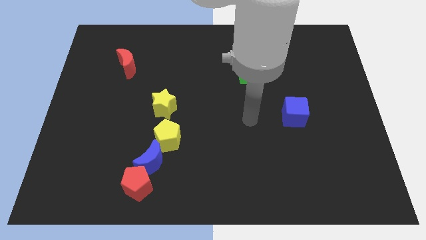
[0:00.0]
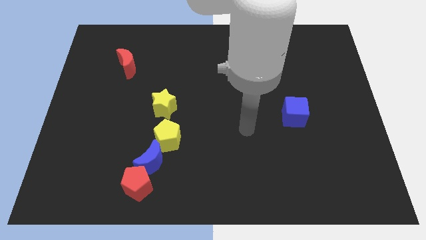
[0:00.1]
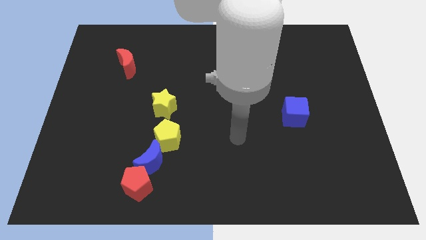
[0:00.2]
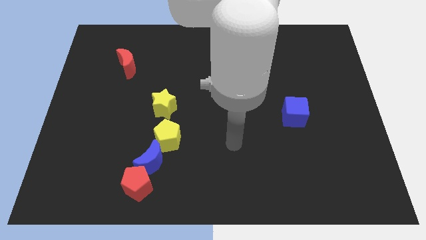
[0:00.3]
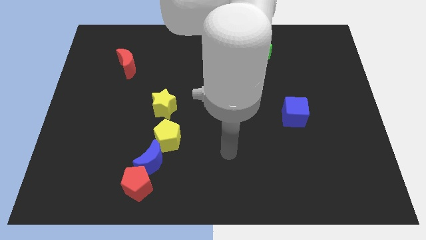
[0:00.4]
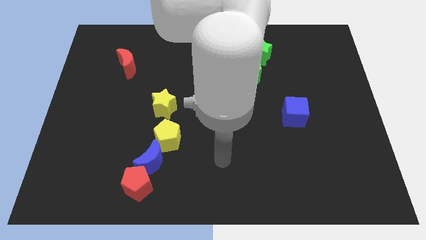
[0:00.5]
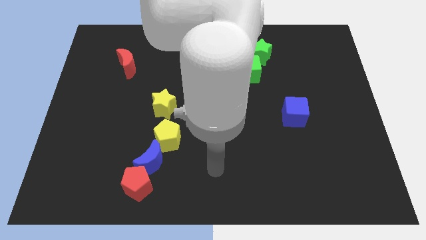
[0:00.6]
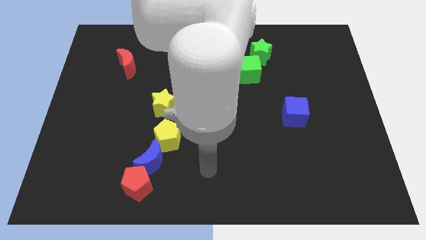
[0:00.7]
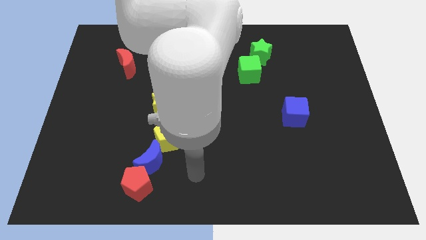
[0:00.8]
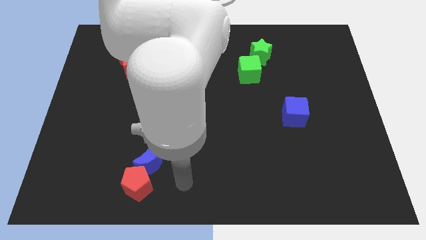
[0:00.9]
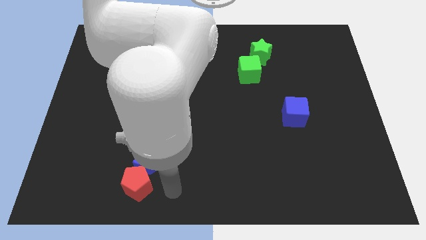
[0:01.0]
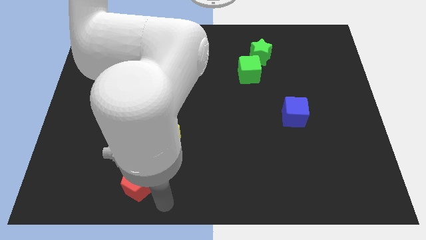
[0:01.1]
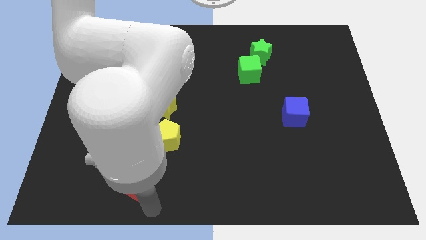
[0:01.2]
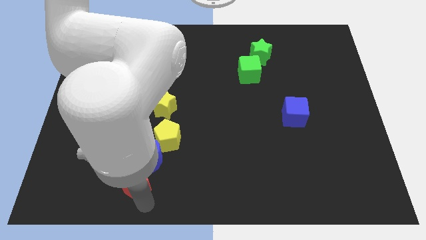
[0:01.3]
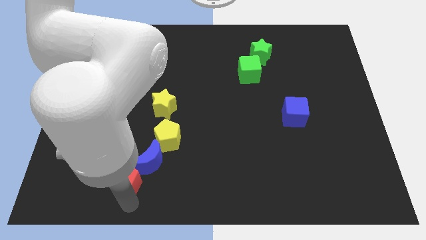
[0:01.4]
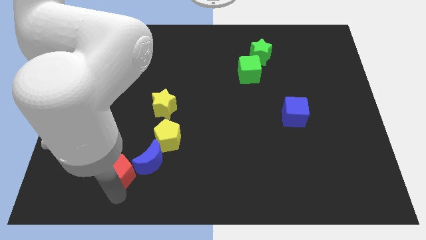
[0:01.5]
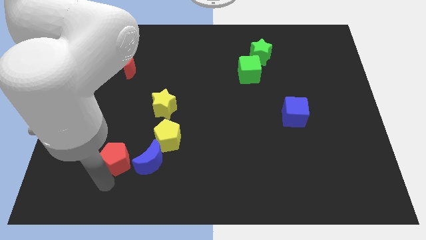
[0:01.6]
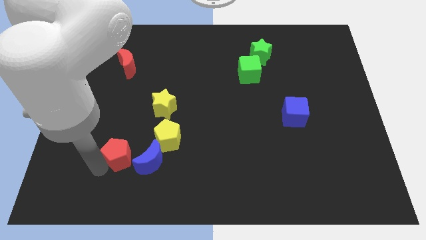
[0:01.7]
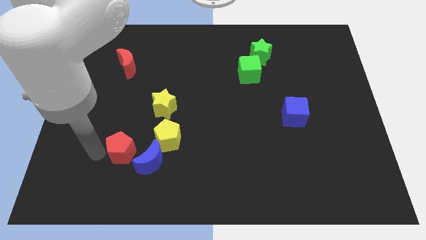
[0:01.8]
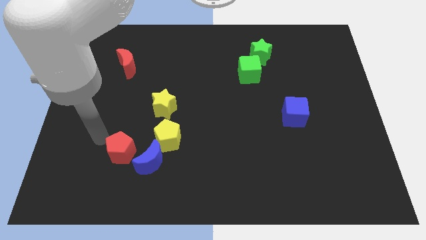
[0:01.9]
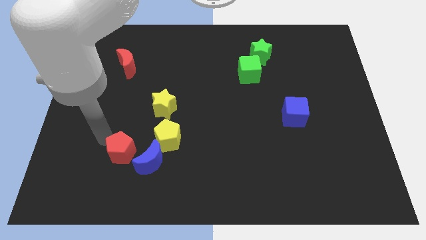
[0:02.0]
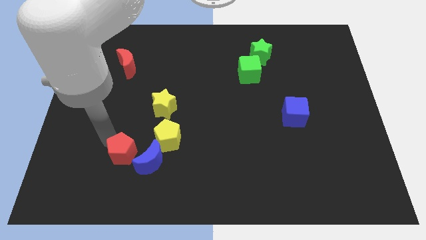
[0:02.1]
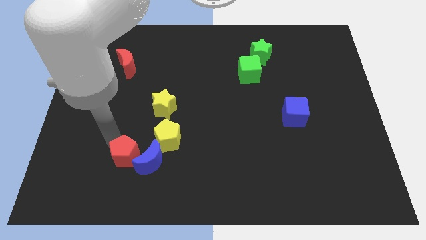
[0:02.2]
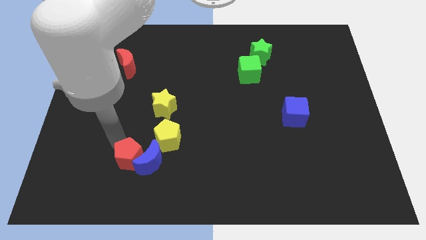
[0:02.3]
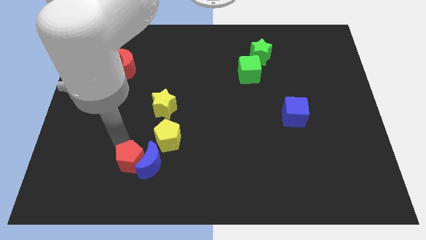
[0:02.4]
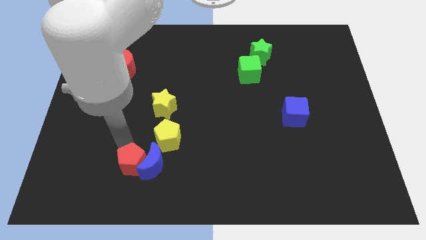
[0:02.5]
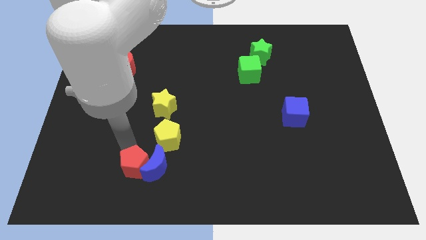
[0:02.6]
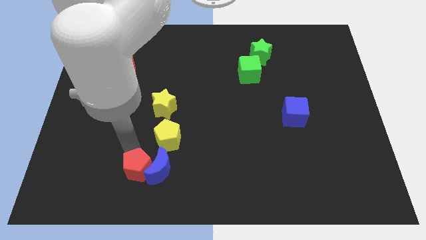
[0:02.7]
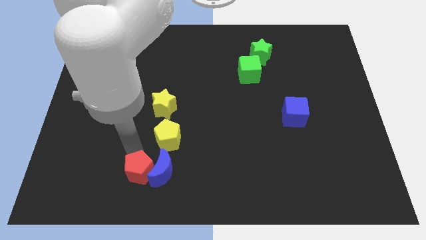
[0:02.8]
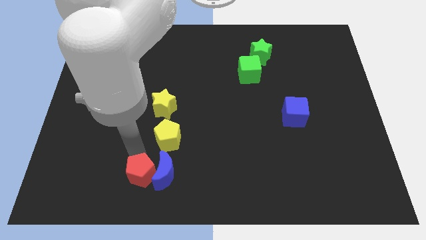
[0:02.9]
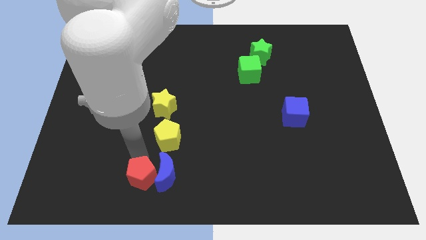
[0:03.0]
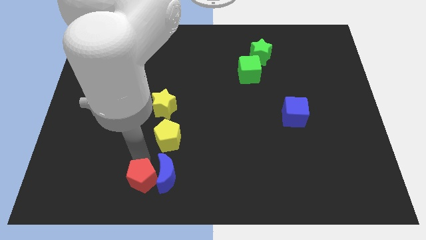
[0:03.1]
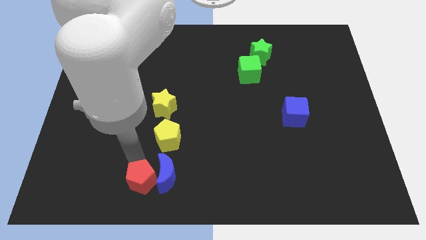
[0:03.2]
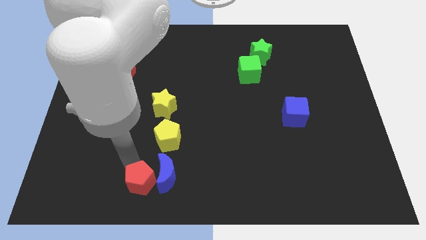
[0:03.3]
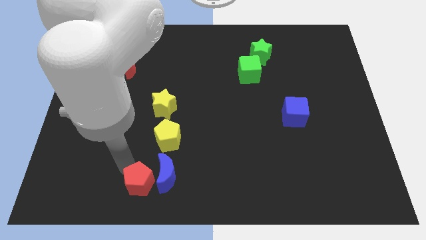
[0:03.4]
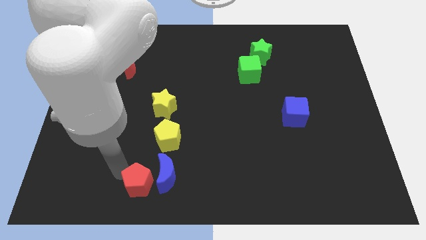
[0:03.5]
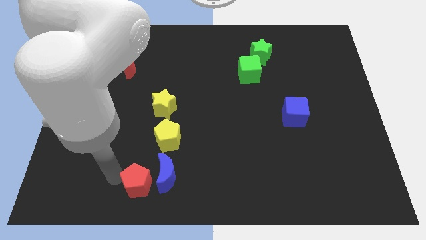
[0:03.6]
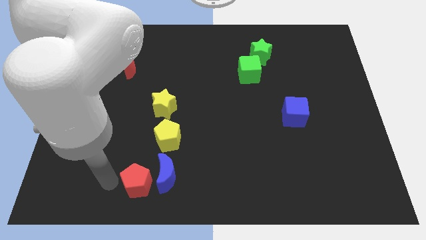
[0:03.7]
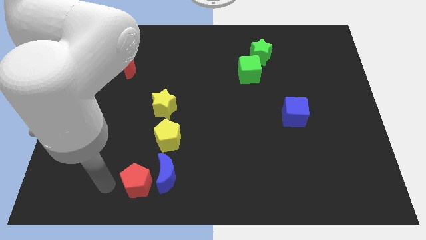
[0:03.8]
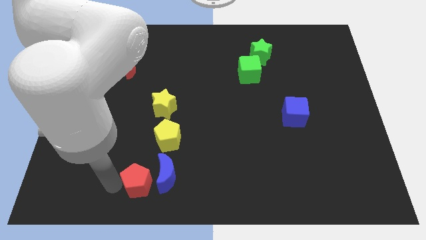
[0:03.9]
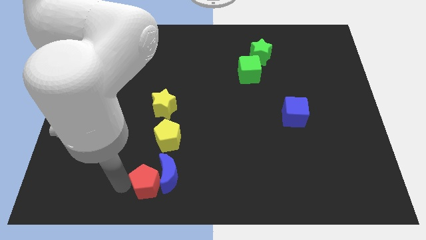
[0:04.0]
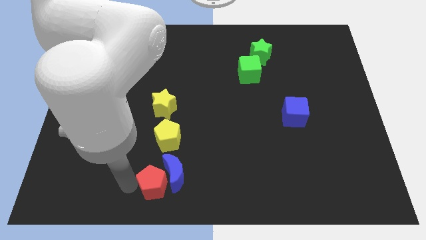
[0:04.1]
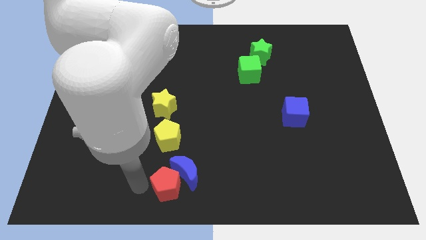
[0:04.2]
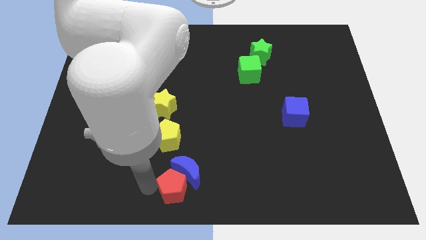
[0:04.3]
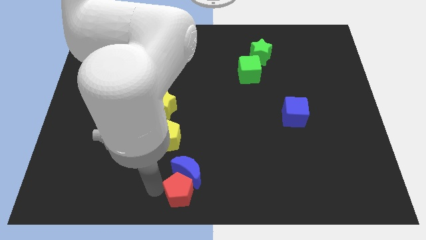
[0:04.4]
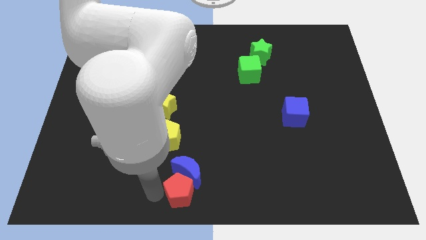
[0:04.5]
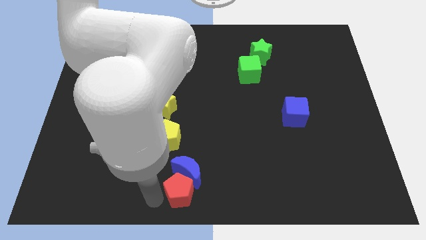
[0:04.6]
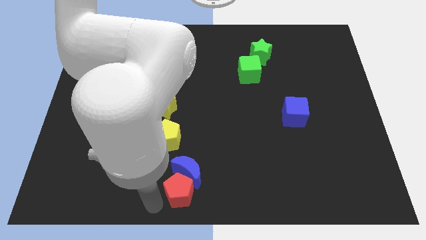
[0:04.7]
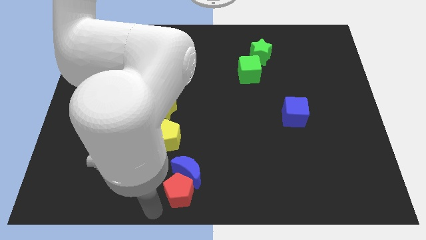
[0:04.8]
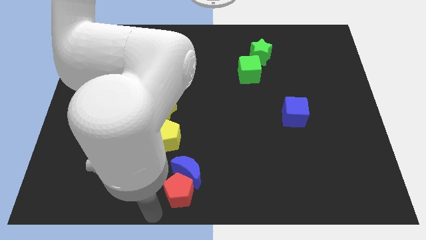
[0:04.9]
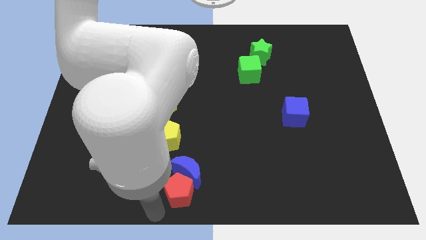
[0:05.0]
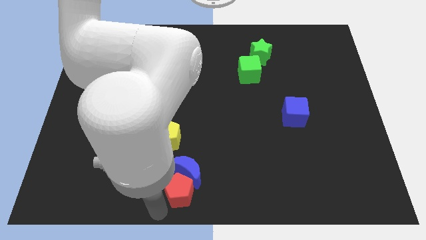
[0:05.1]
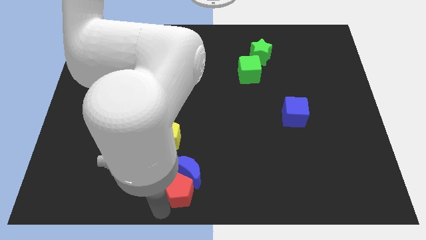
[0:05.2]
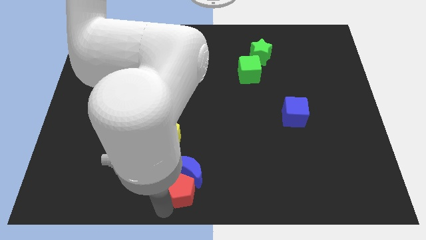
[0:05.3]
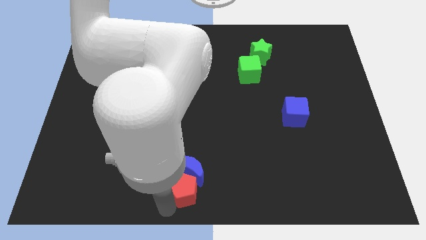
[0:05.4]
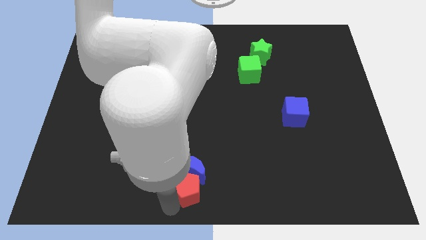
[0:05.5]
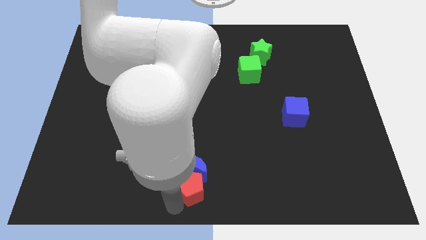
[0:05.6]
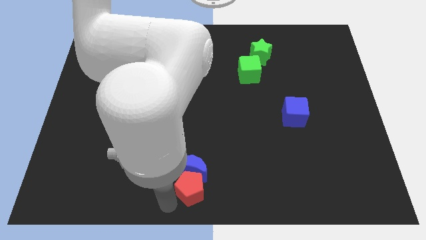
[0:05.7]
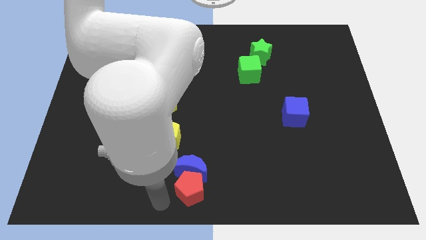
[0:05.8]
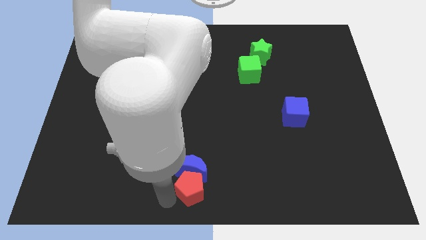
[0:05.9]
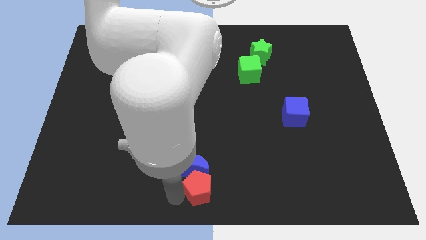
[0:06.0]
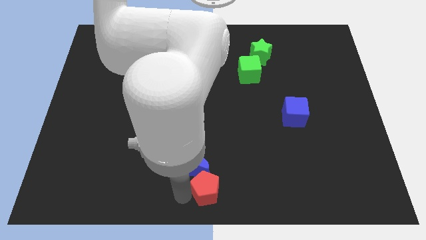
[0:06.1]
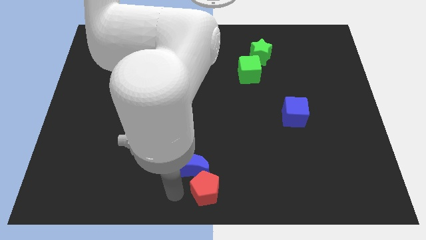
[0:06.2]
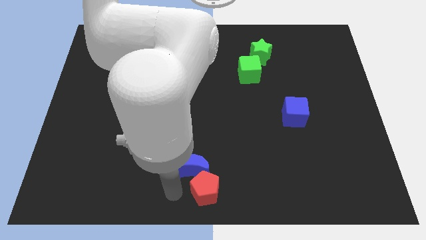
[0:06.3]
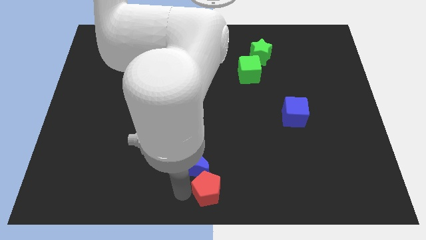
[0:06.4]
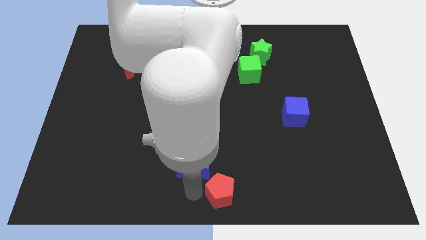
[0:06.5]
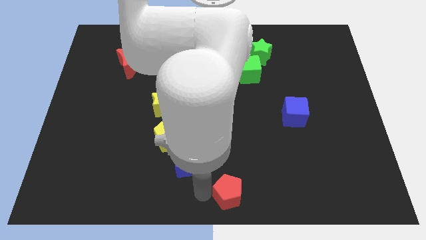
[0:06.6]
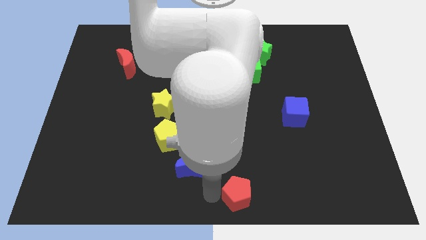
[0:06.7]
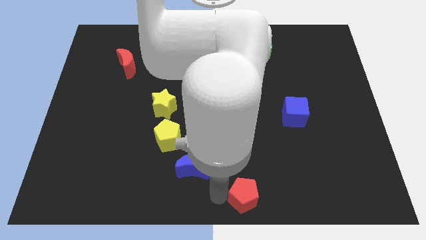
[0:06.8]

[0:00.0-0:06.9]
move the red pentagon right

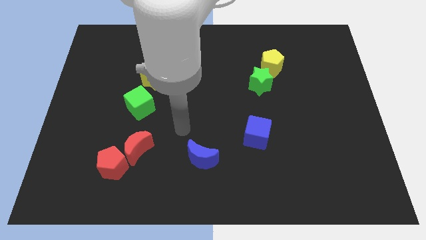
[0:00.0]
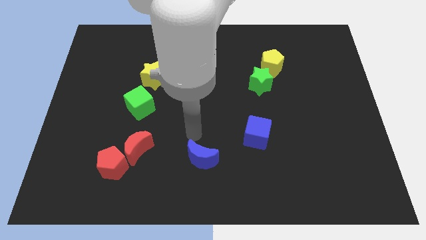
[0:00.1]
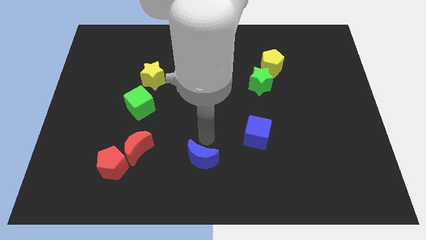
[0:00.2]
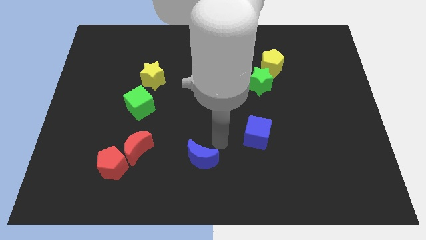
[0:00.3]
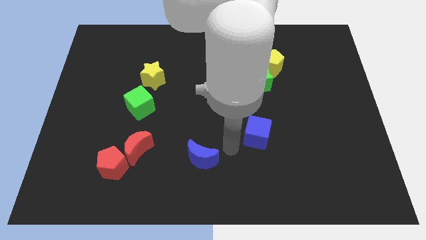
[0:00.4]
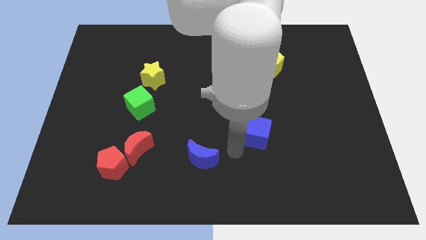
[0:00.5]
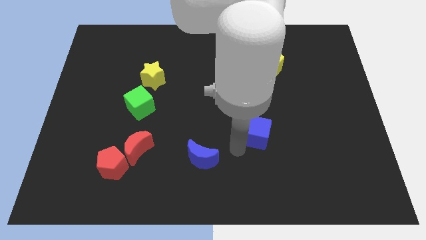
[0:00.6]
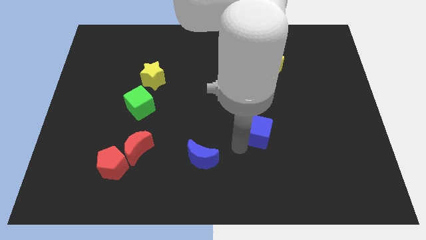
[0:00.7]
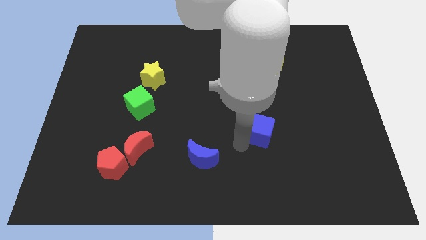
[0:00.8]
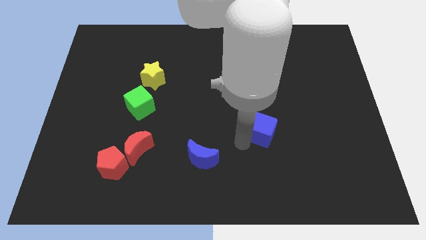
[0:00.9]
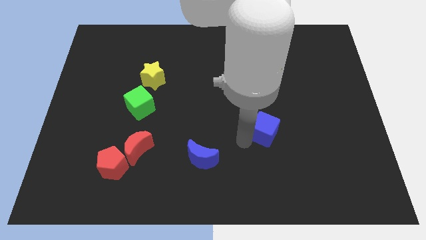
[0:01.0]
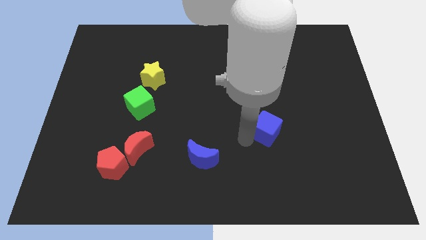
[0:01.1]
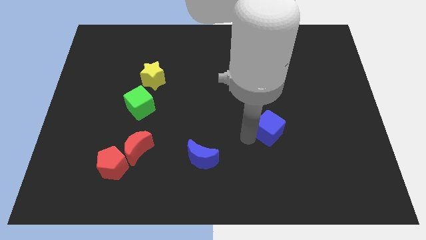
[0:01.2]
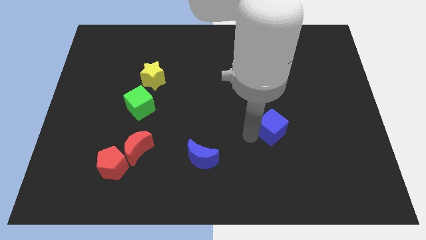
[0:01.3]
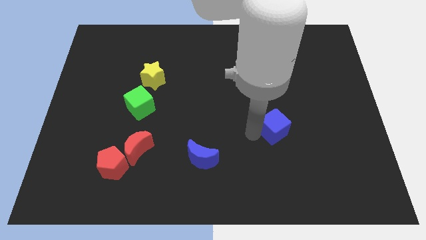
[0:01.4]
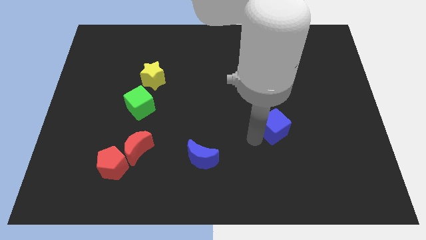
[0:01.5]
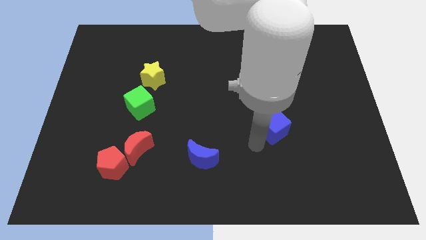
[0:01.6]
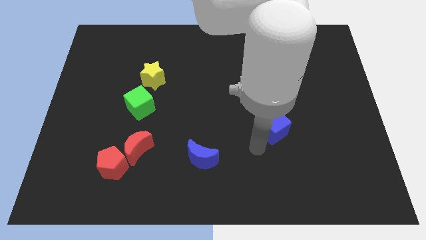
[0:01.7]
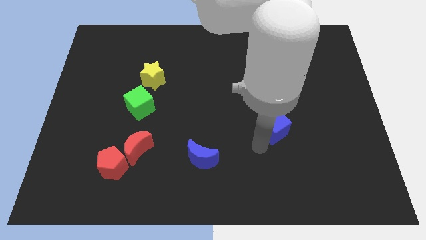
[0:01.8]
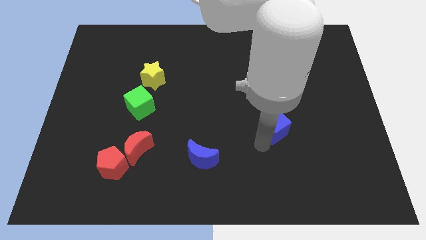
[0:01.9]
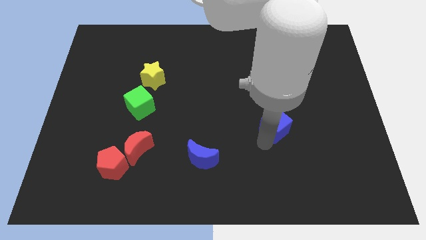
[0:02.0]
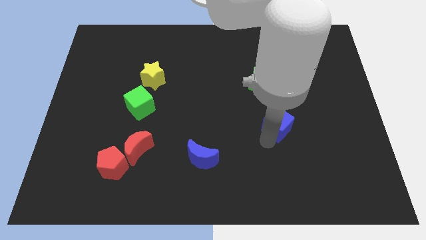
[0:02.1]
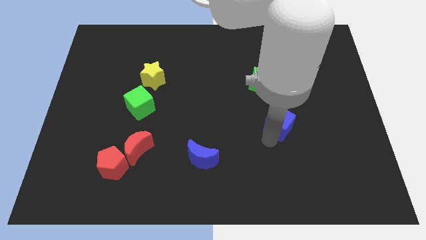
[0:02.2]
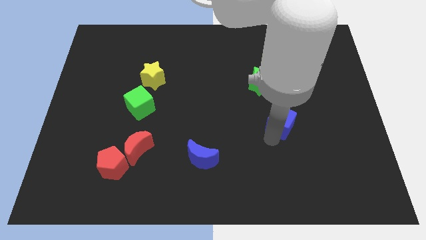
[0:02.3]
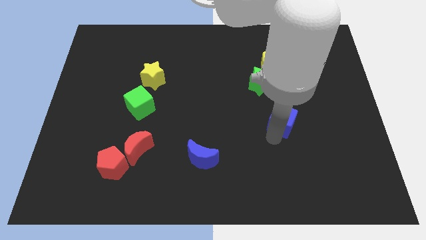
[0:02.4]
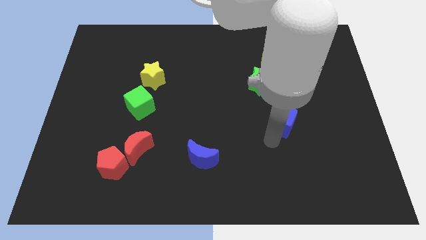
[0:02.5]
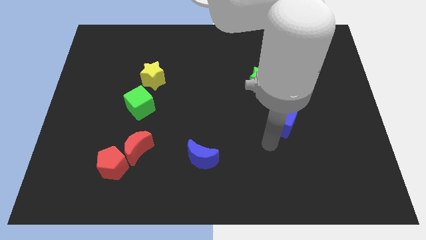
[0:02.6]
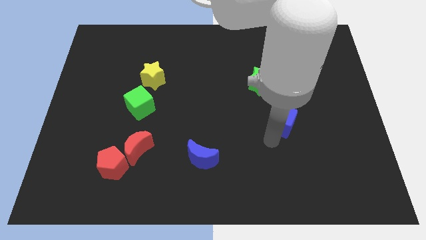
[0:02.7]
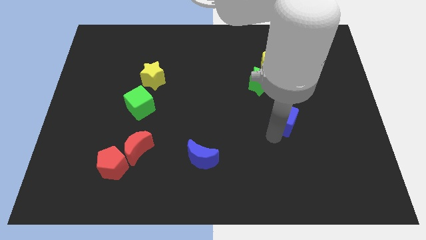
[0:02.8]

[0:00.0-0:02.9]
slide the blue cube up and to the right slightly
